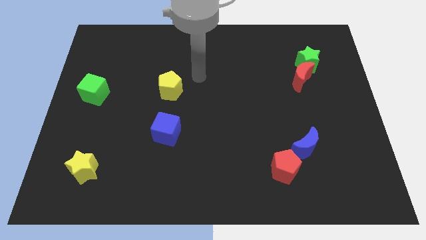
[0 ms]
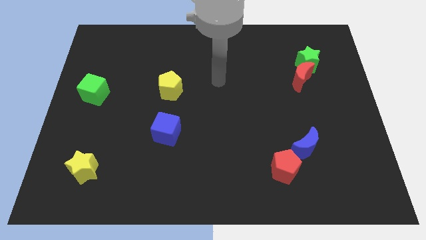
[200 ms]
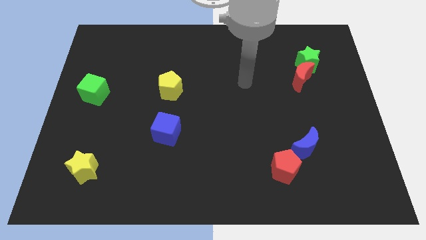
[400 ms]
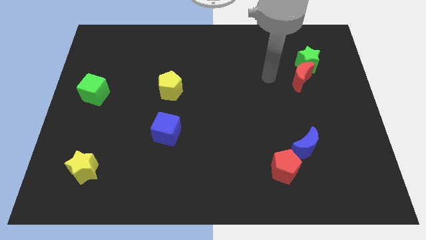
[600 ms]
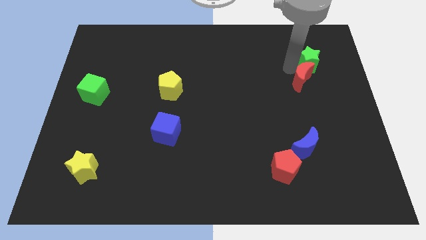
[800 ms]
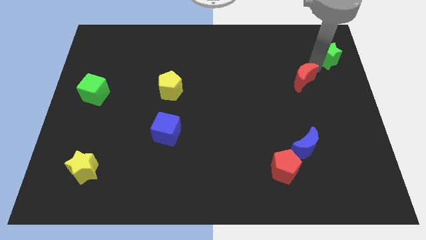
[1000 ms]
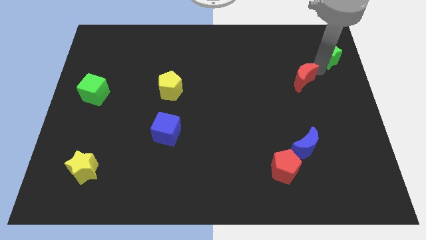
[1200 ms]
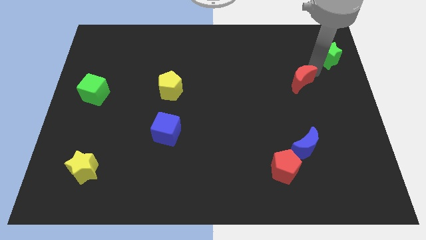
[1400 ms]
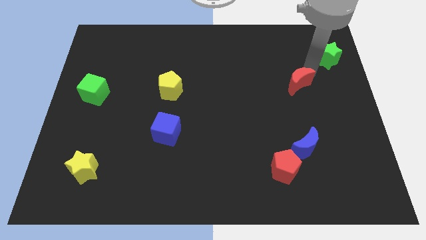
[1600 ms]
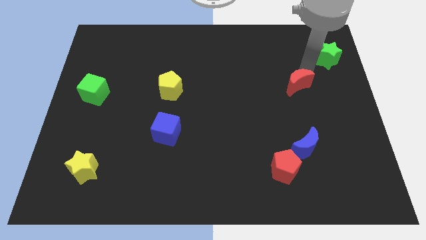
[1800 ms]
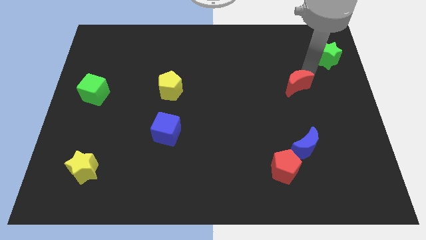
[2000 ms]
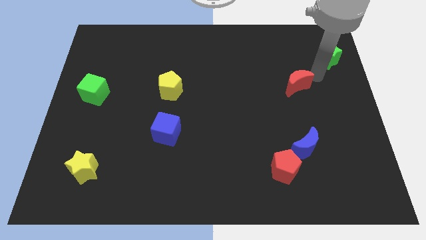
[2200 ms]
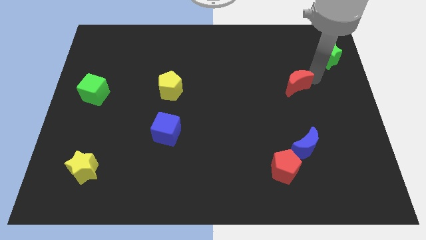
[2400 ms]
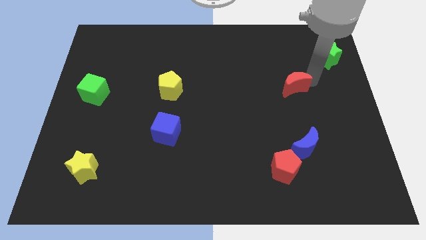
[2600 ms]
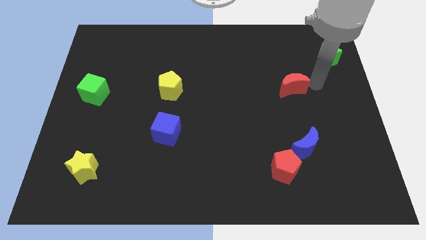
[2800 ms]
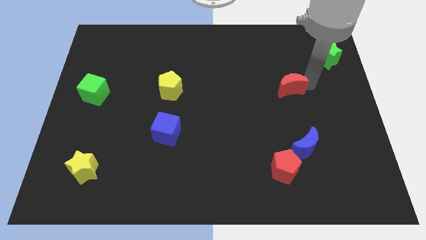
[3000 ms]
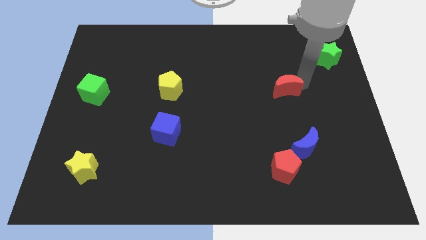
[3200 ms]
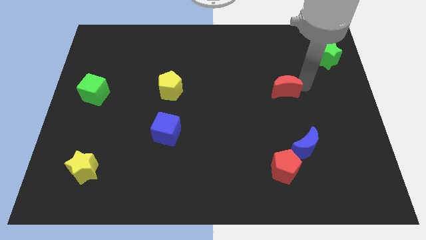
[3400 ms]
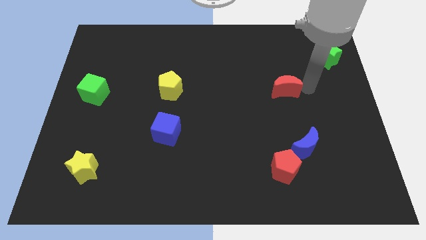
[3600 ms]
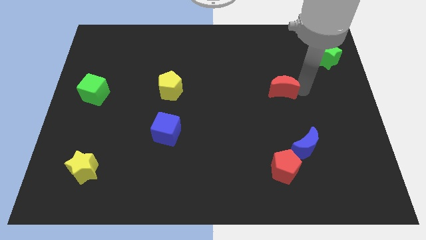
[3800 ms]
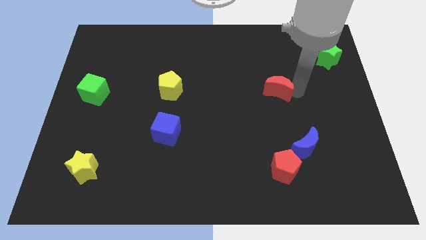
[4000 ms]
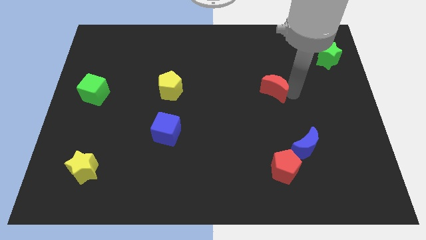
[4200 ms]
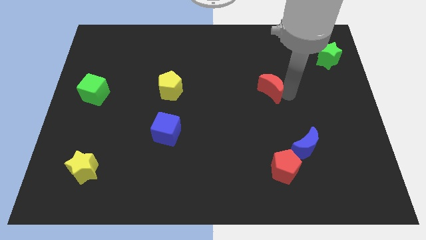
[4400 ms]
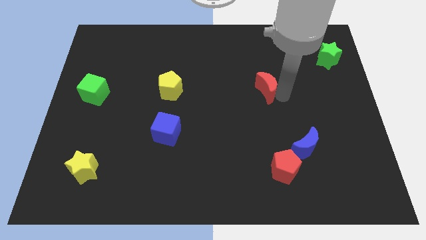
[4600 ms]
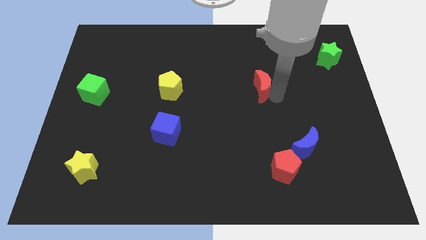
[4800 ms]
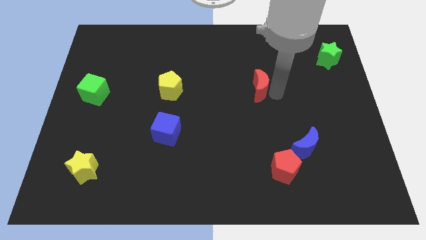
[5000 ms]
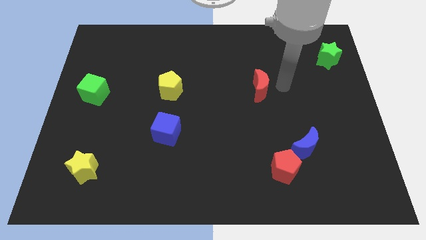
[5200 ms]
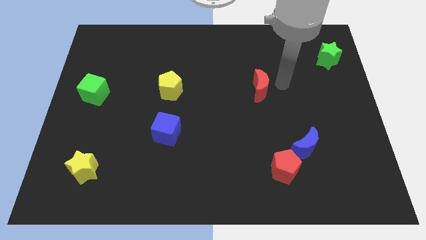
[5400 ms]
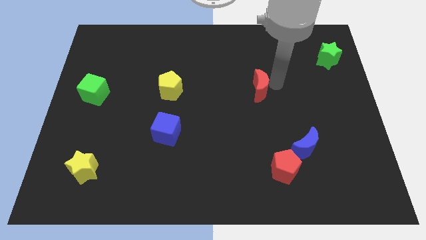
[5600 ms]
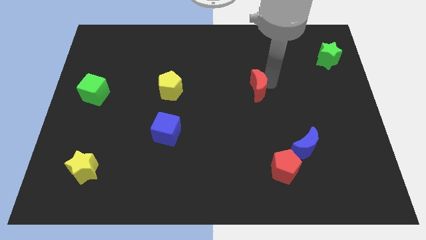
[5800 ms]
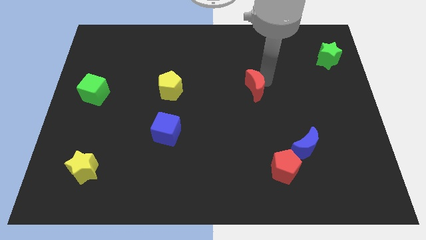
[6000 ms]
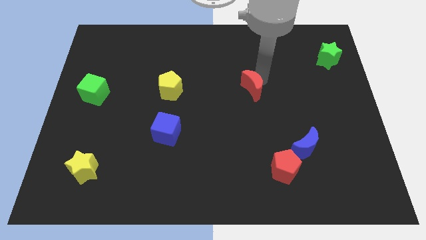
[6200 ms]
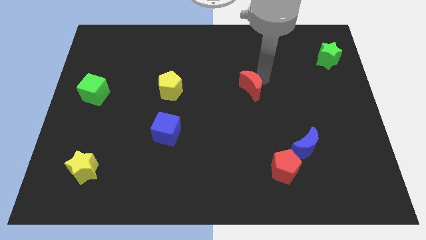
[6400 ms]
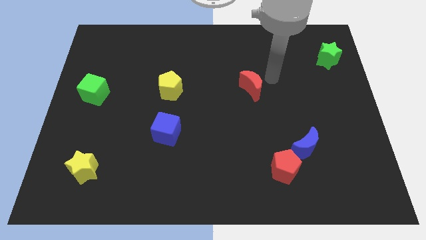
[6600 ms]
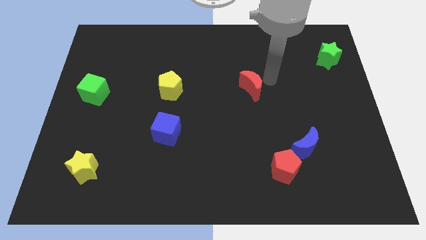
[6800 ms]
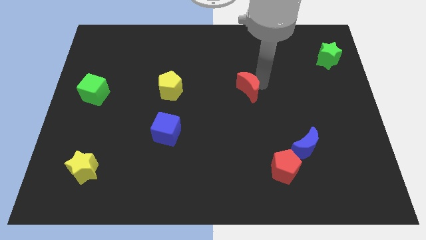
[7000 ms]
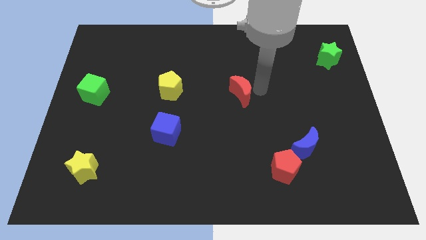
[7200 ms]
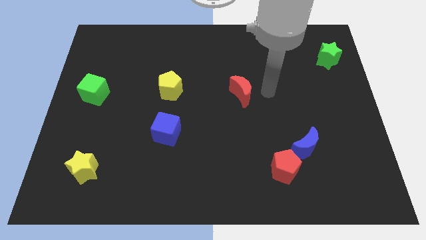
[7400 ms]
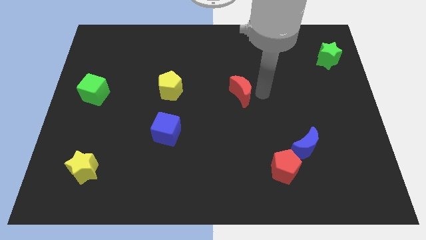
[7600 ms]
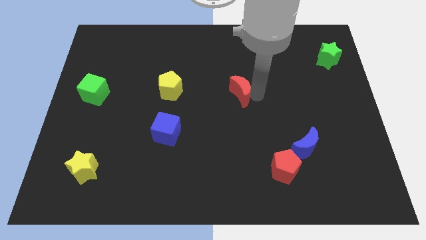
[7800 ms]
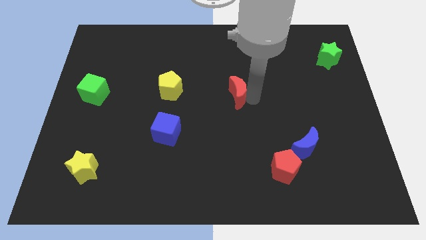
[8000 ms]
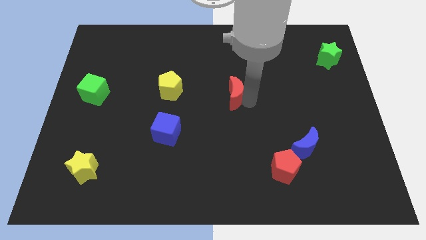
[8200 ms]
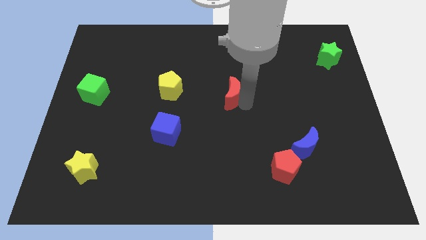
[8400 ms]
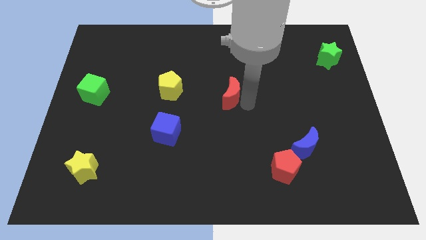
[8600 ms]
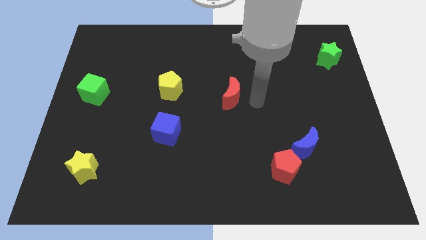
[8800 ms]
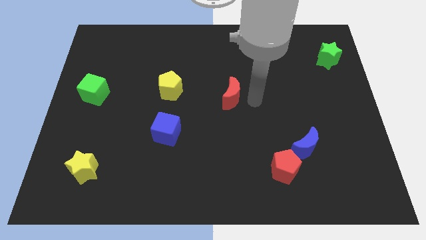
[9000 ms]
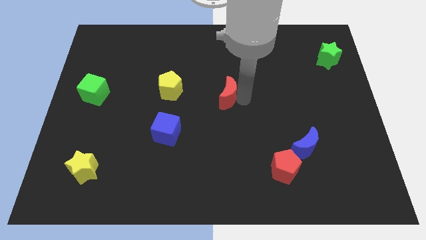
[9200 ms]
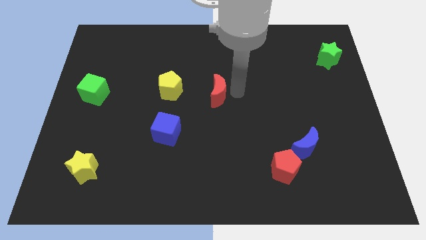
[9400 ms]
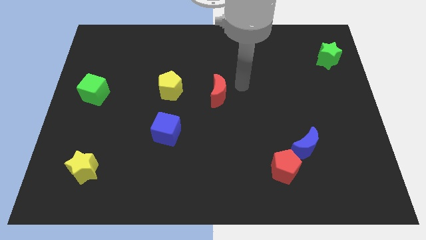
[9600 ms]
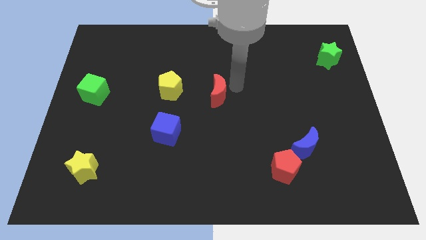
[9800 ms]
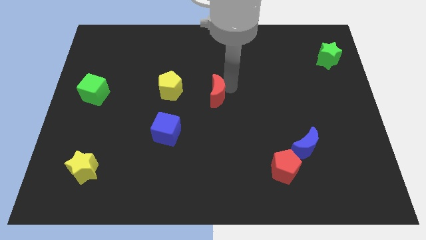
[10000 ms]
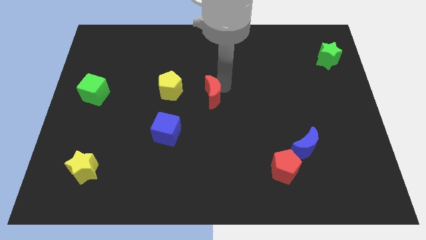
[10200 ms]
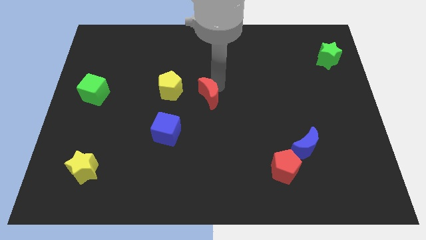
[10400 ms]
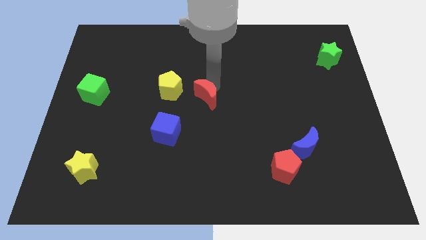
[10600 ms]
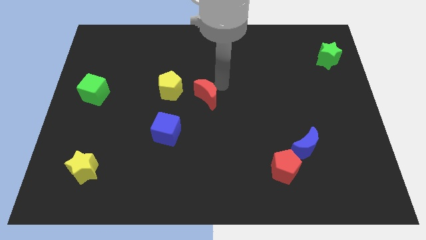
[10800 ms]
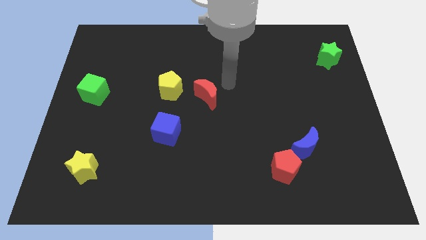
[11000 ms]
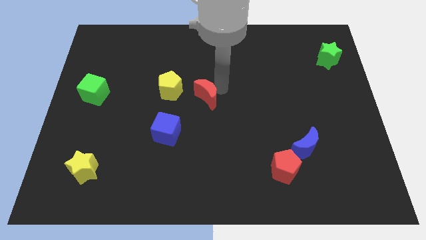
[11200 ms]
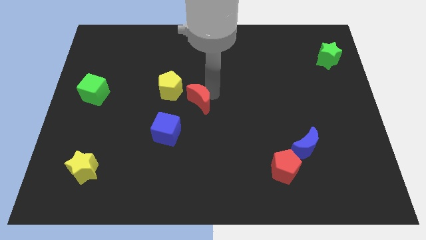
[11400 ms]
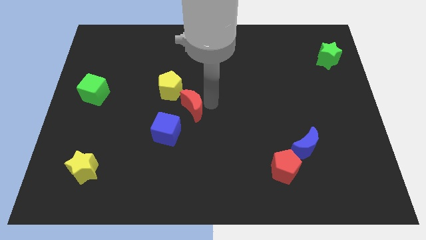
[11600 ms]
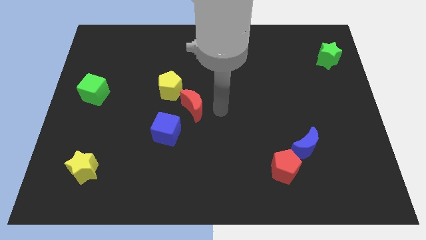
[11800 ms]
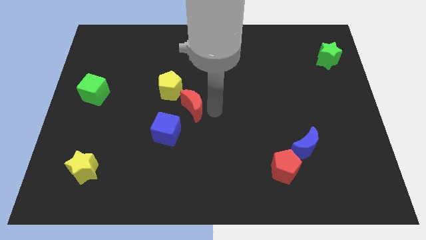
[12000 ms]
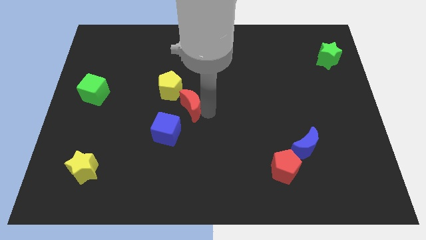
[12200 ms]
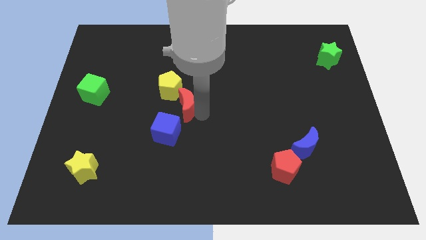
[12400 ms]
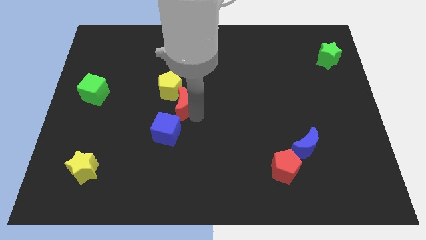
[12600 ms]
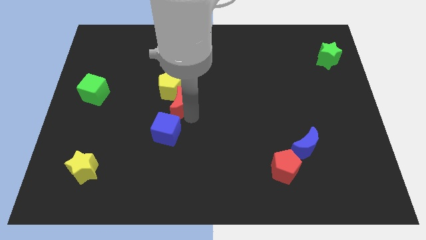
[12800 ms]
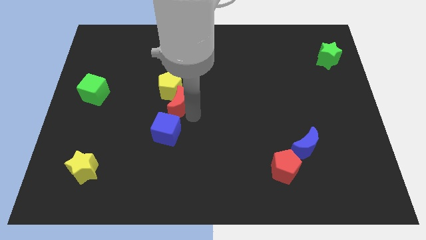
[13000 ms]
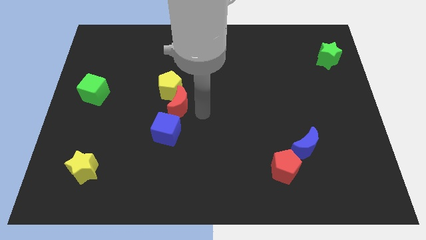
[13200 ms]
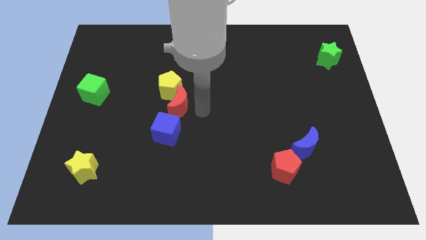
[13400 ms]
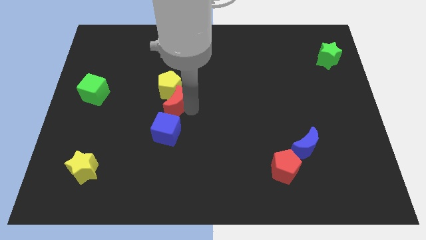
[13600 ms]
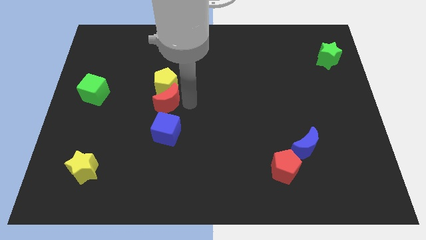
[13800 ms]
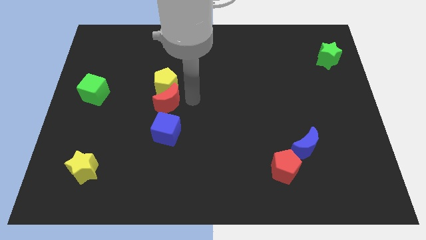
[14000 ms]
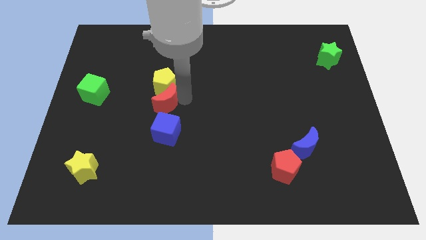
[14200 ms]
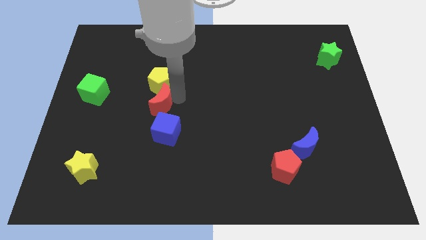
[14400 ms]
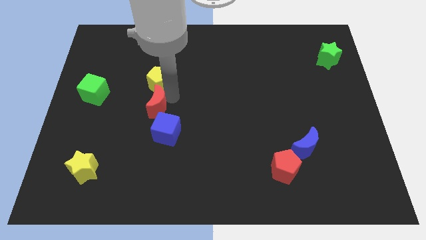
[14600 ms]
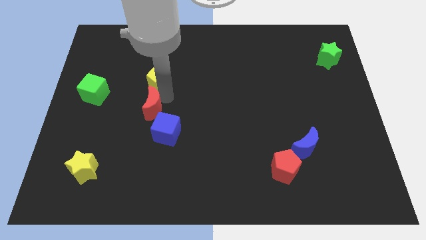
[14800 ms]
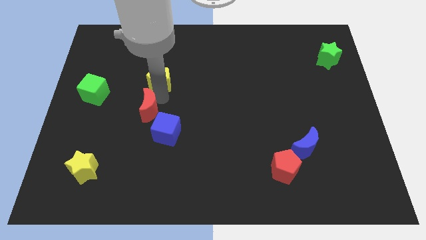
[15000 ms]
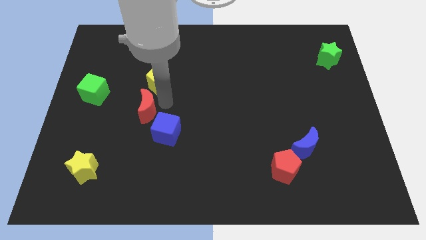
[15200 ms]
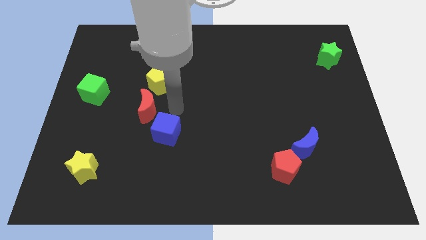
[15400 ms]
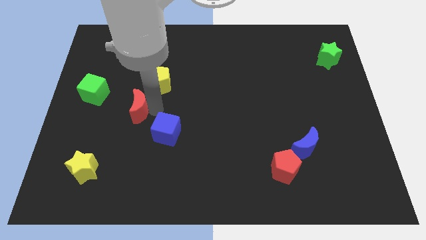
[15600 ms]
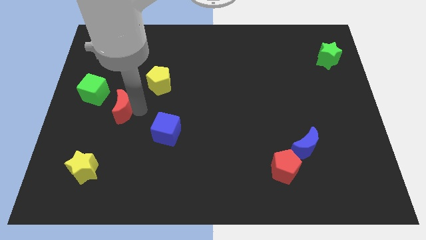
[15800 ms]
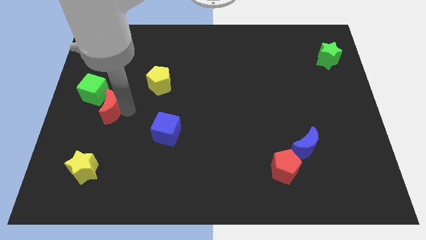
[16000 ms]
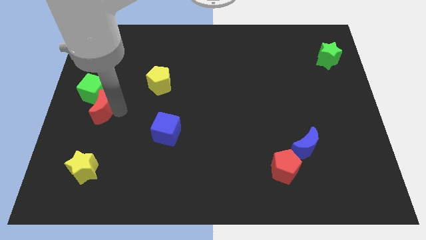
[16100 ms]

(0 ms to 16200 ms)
slide the red moon to the center left
